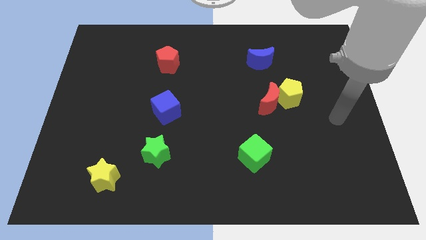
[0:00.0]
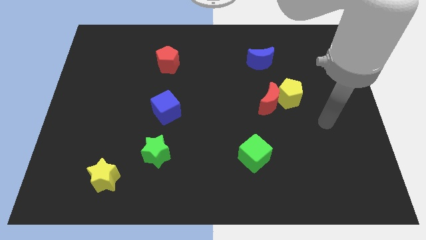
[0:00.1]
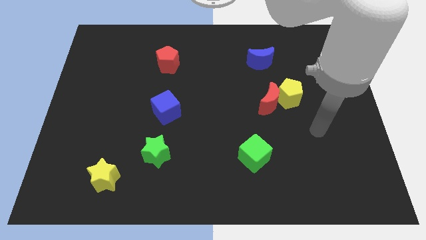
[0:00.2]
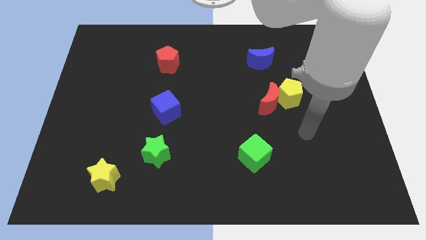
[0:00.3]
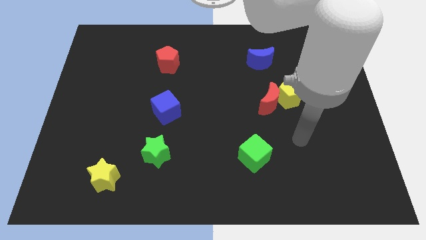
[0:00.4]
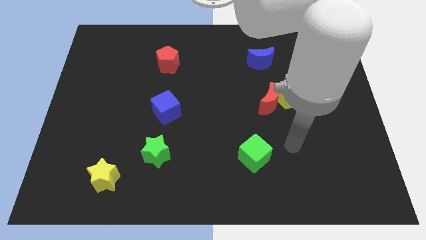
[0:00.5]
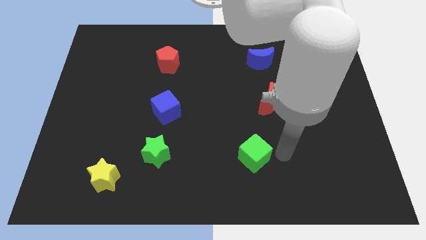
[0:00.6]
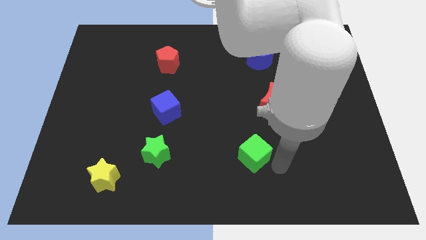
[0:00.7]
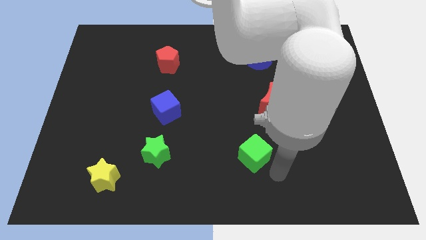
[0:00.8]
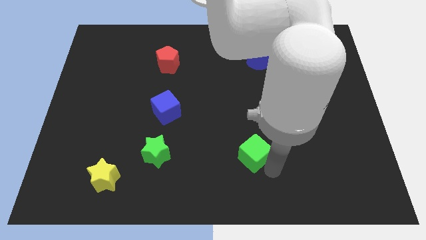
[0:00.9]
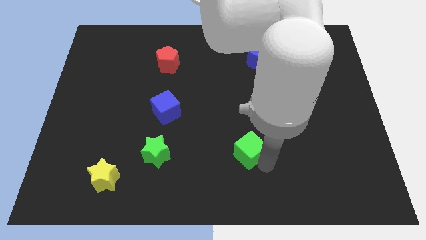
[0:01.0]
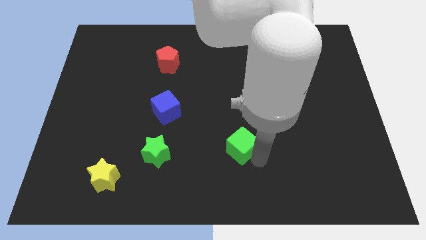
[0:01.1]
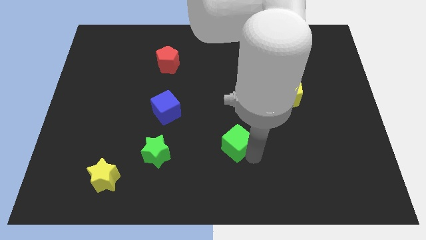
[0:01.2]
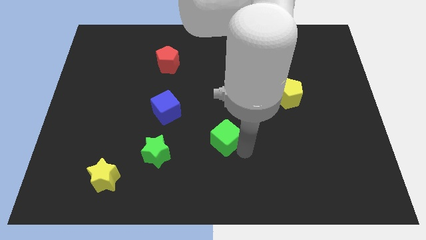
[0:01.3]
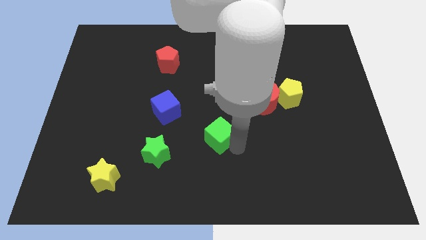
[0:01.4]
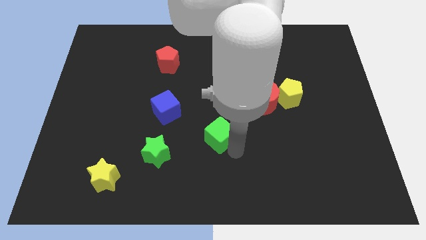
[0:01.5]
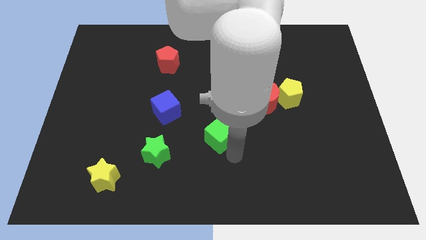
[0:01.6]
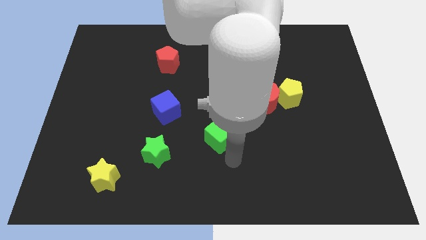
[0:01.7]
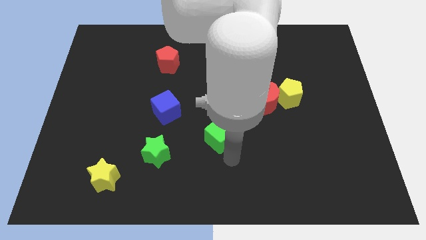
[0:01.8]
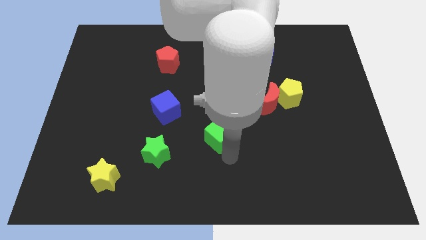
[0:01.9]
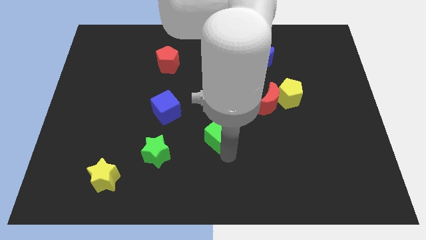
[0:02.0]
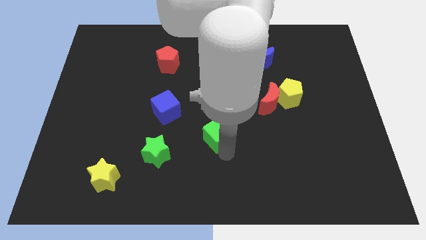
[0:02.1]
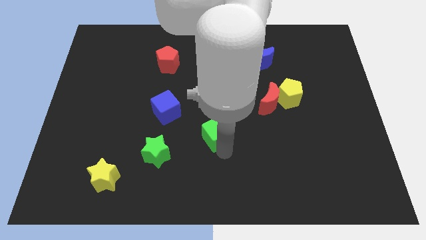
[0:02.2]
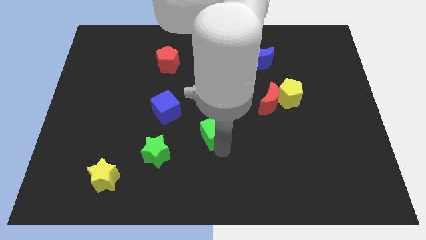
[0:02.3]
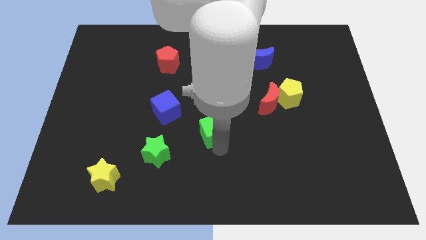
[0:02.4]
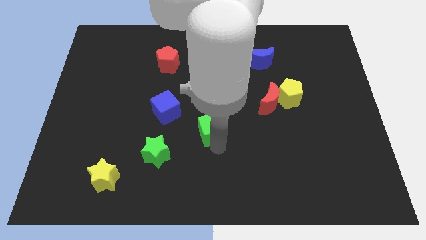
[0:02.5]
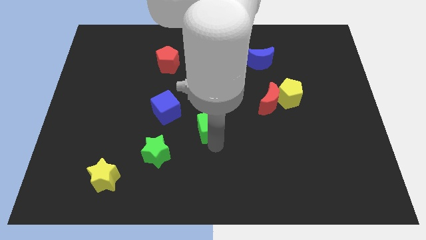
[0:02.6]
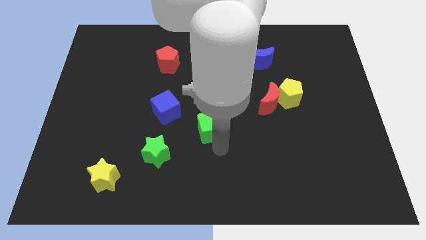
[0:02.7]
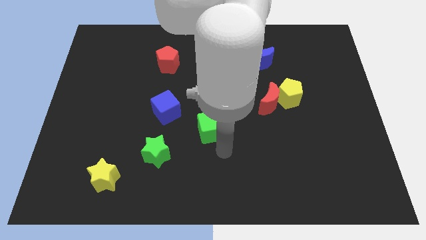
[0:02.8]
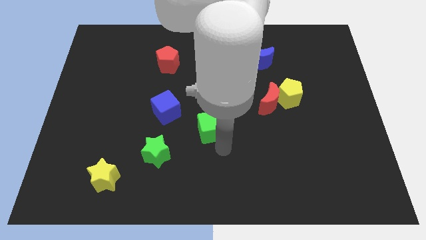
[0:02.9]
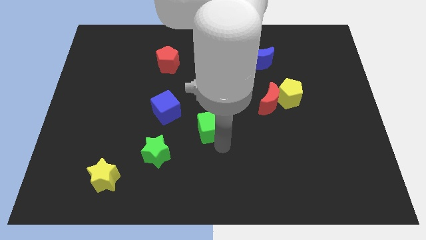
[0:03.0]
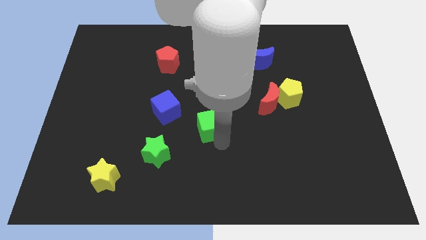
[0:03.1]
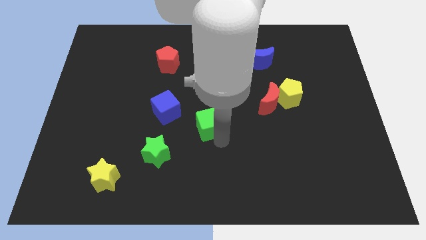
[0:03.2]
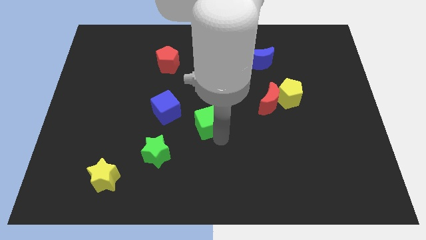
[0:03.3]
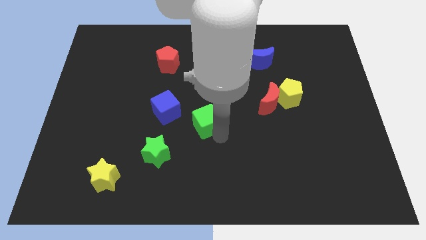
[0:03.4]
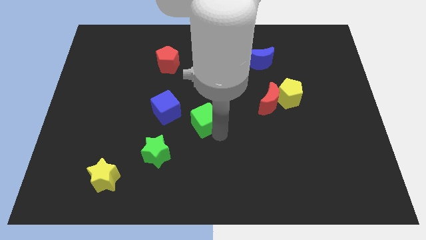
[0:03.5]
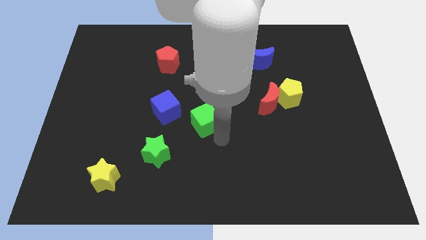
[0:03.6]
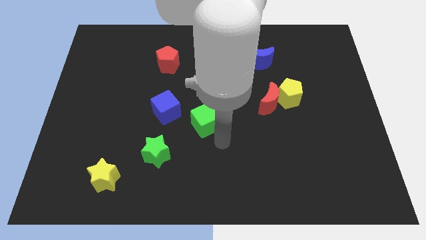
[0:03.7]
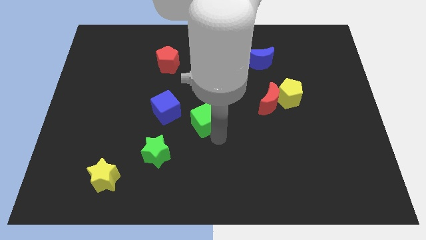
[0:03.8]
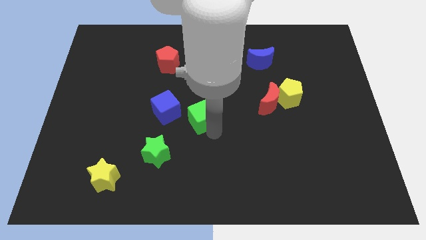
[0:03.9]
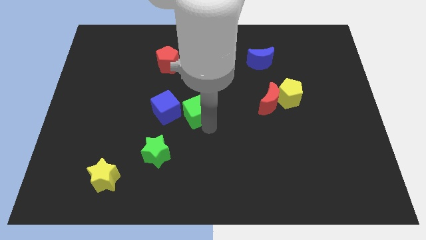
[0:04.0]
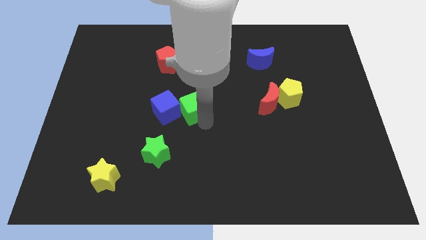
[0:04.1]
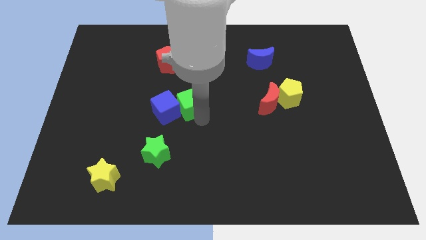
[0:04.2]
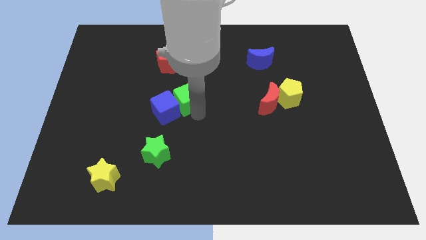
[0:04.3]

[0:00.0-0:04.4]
move the green cube diagonally upwards and left

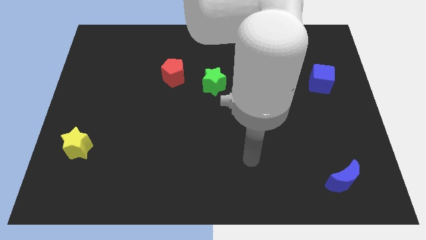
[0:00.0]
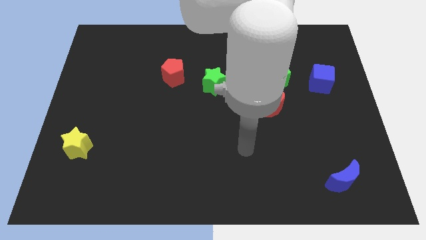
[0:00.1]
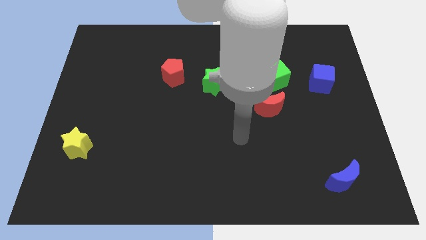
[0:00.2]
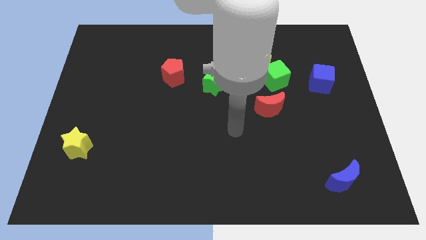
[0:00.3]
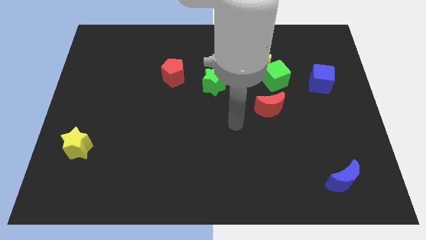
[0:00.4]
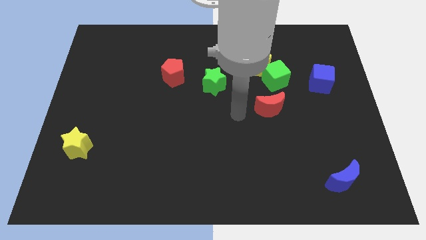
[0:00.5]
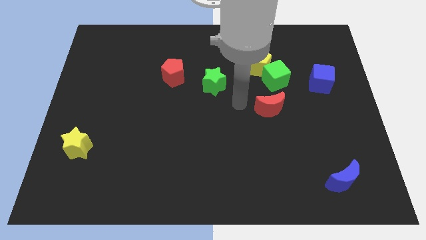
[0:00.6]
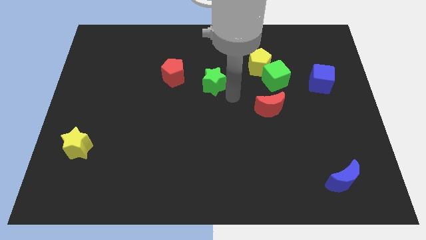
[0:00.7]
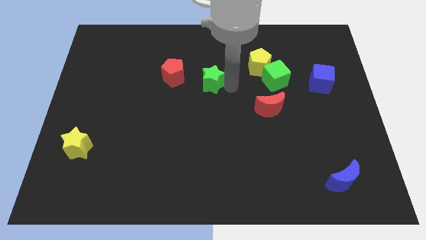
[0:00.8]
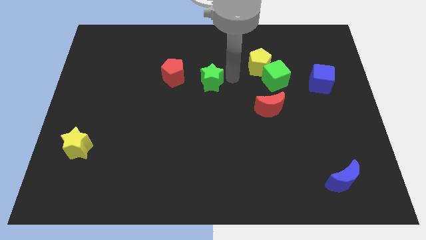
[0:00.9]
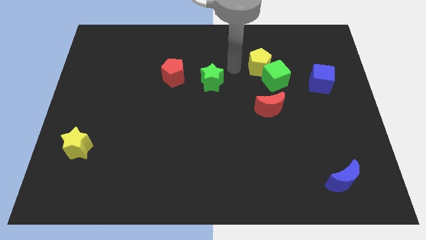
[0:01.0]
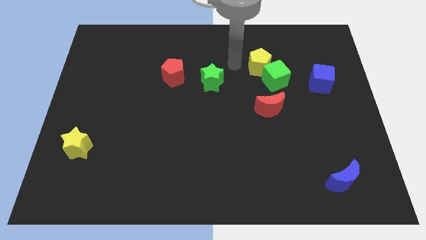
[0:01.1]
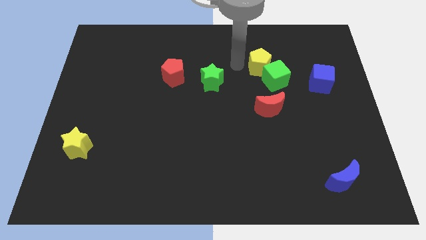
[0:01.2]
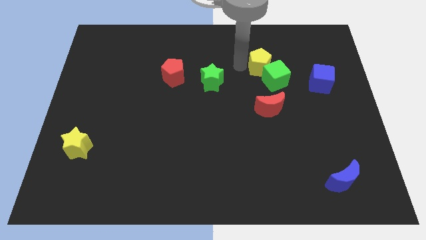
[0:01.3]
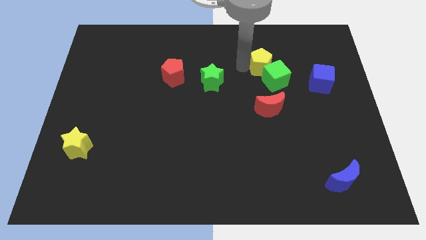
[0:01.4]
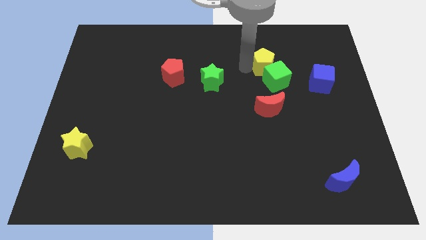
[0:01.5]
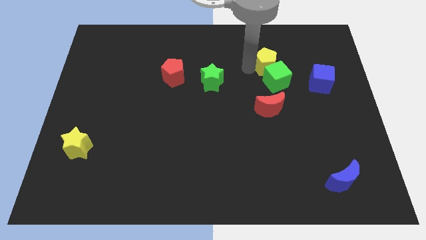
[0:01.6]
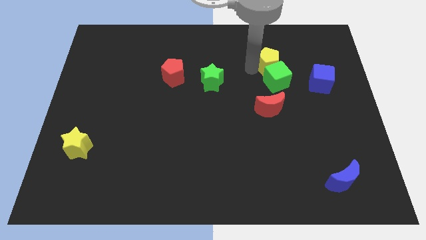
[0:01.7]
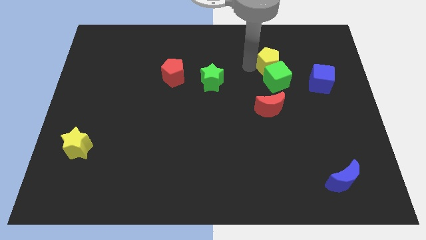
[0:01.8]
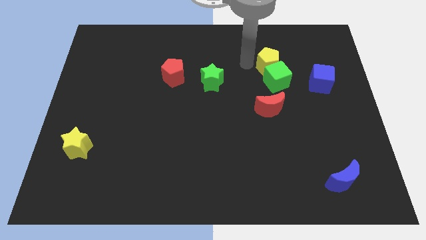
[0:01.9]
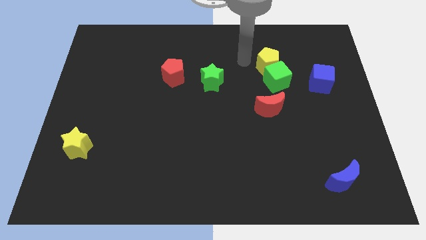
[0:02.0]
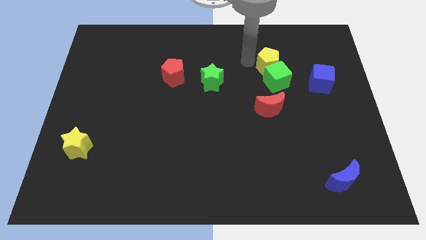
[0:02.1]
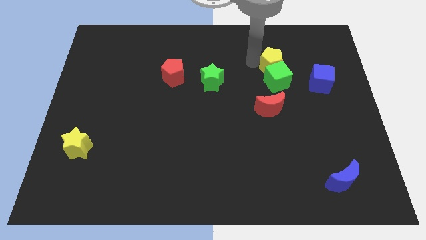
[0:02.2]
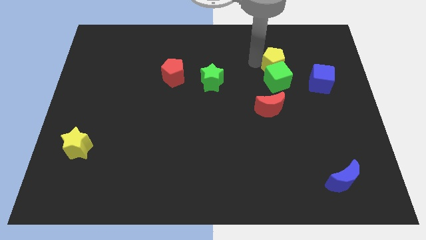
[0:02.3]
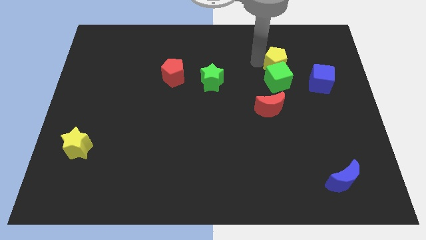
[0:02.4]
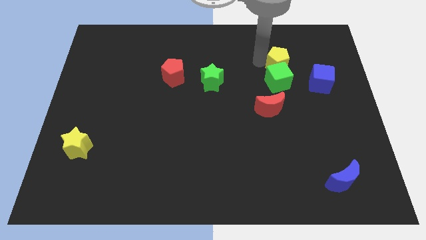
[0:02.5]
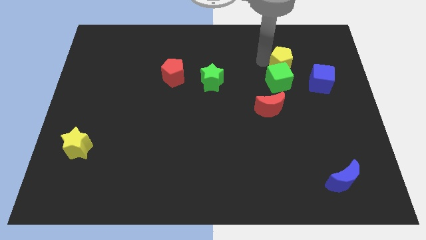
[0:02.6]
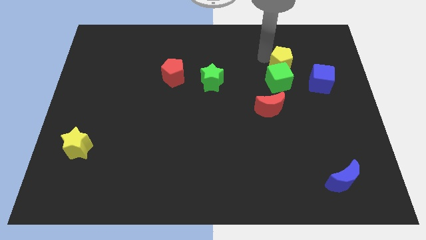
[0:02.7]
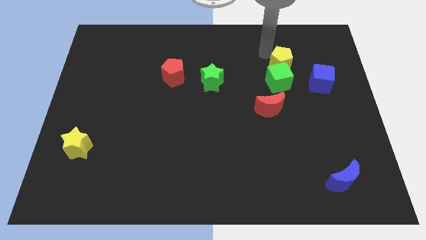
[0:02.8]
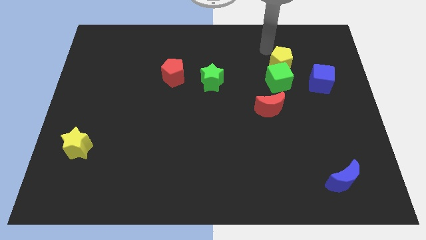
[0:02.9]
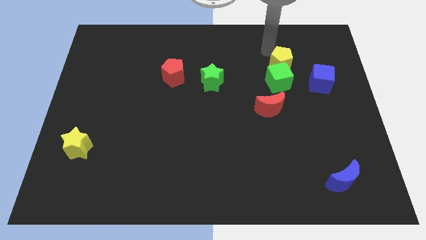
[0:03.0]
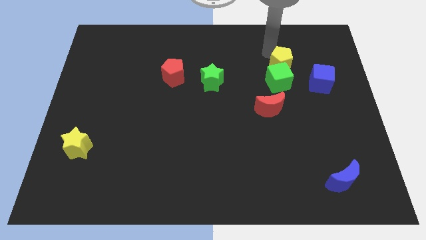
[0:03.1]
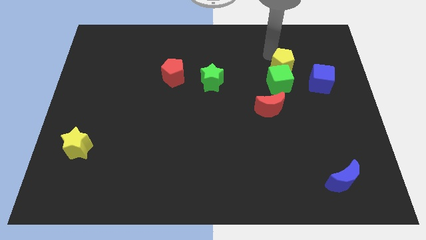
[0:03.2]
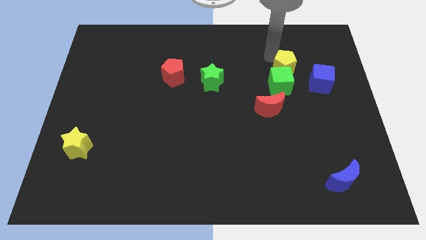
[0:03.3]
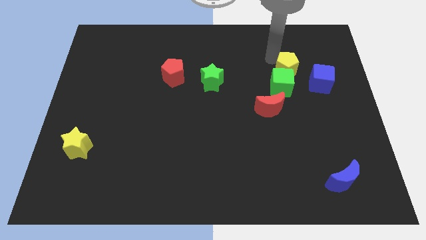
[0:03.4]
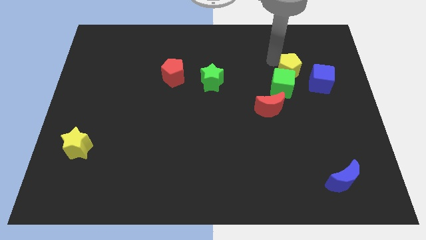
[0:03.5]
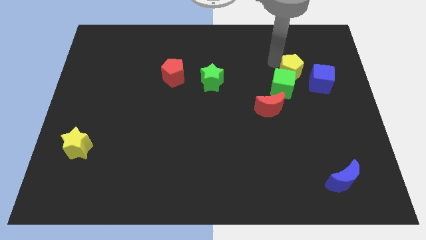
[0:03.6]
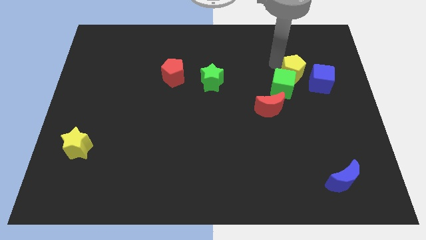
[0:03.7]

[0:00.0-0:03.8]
slightly push the yellow pentagon downwards and right diagonally

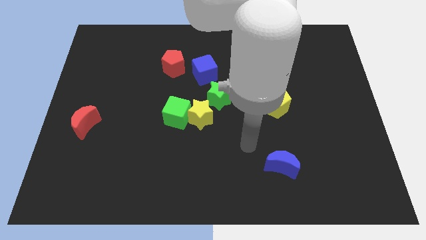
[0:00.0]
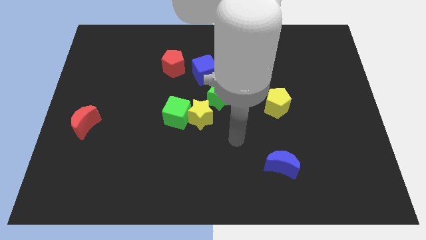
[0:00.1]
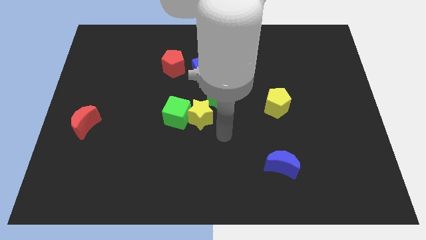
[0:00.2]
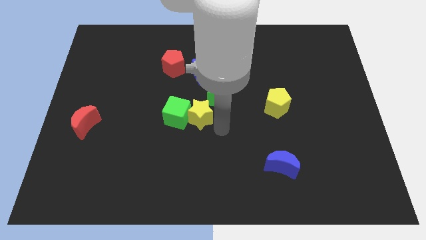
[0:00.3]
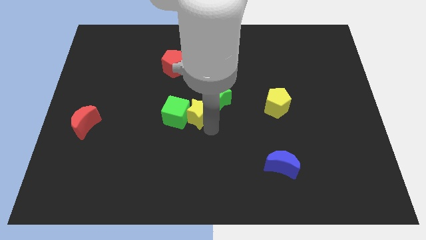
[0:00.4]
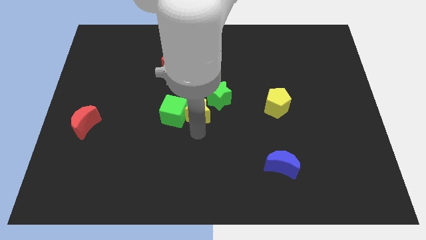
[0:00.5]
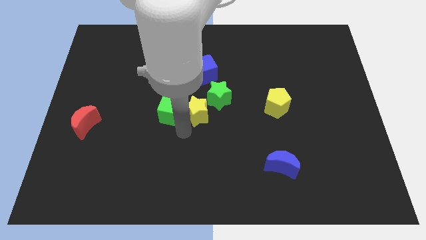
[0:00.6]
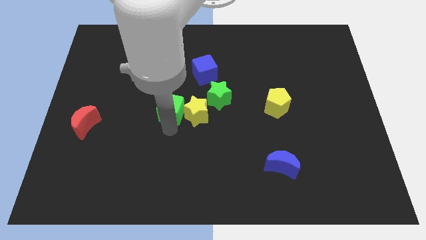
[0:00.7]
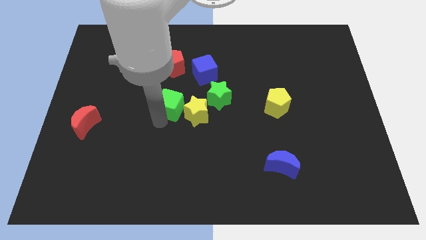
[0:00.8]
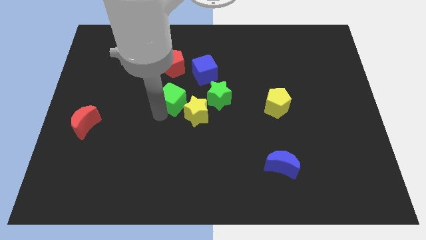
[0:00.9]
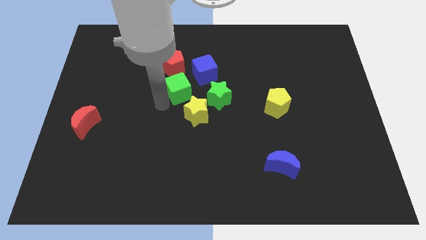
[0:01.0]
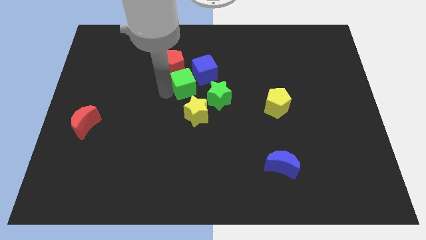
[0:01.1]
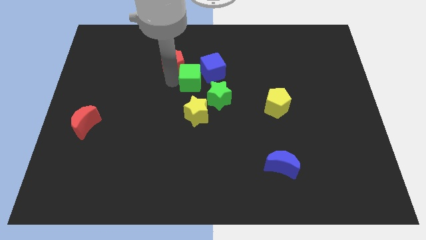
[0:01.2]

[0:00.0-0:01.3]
move the green cube a bit upwards and to the right diagonally
